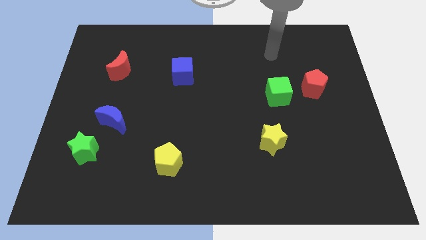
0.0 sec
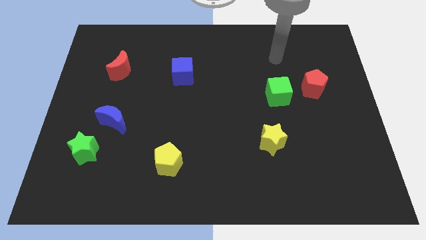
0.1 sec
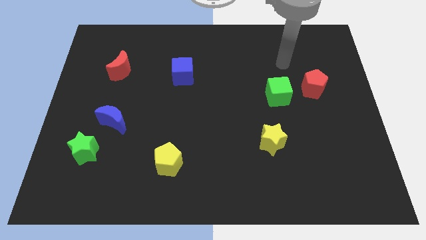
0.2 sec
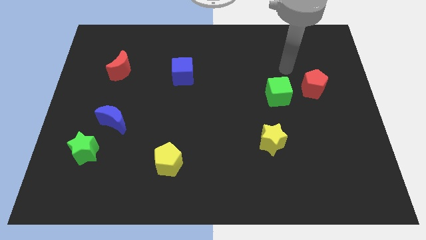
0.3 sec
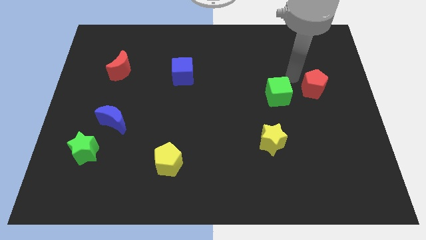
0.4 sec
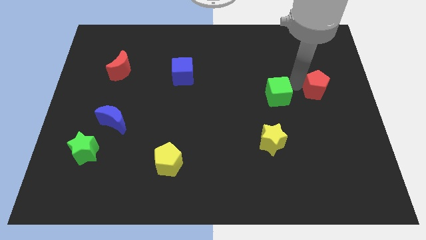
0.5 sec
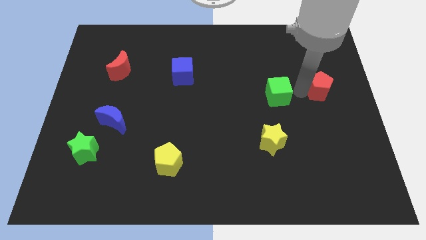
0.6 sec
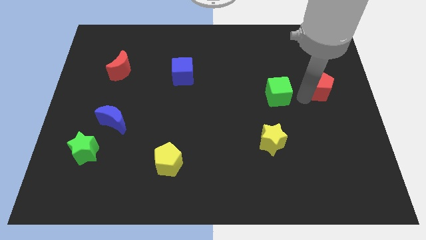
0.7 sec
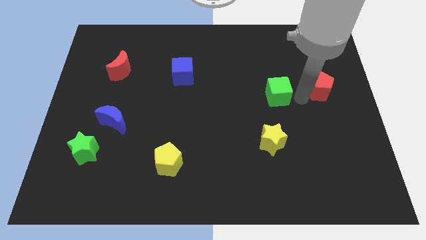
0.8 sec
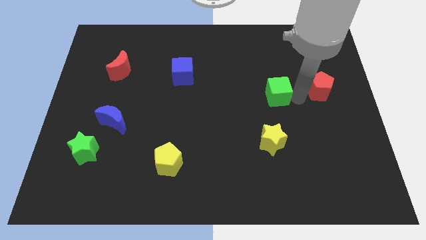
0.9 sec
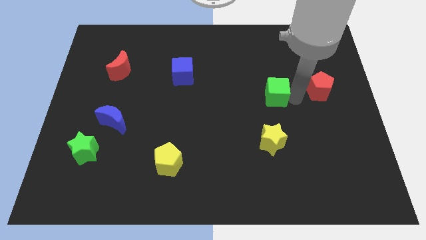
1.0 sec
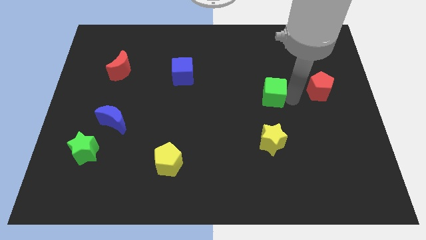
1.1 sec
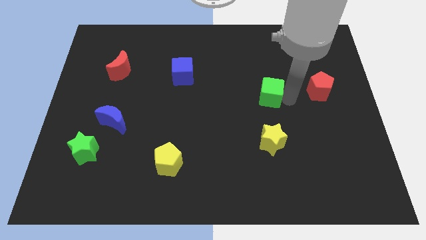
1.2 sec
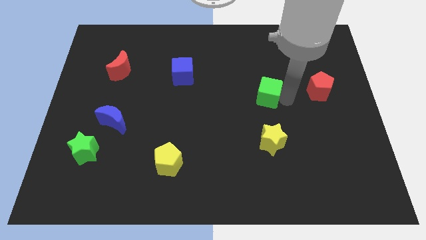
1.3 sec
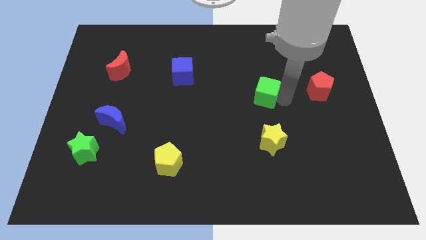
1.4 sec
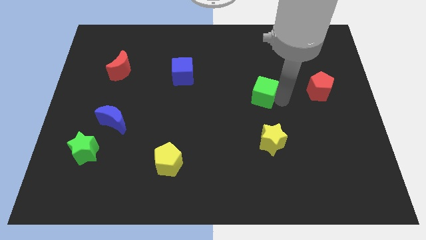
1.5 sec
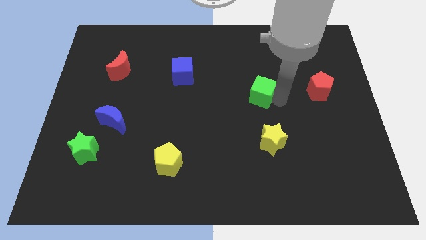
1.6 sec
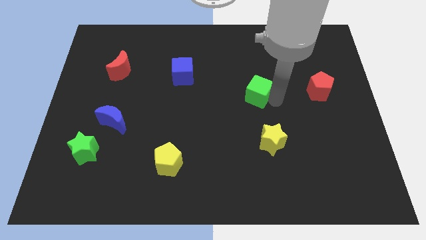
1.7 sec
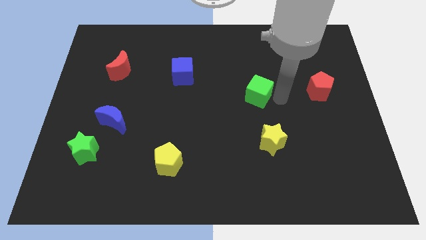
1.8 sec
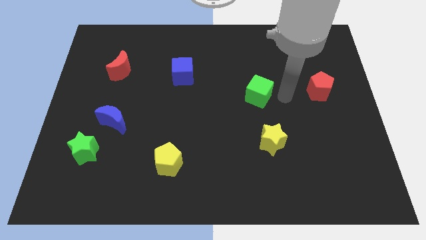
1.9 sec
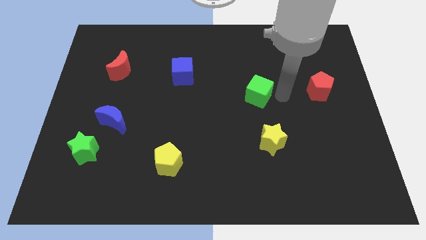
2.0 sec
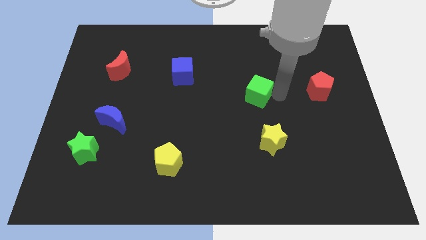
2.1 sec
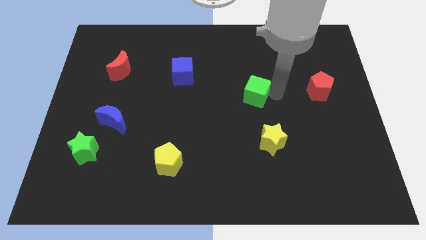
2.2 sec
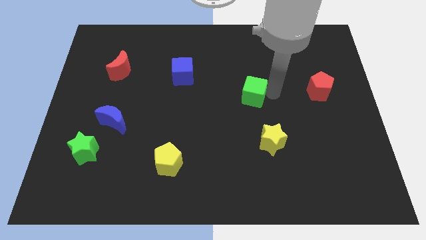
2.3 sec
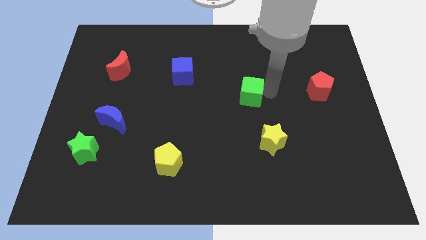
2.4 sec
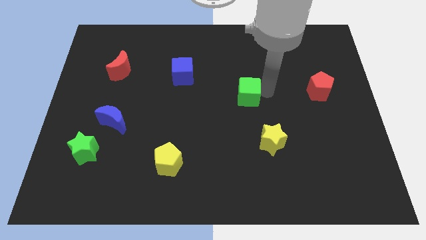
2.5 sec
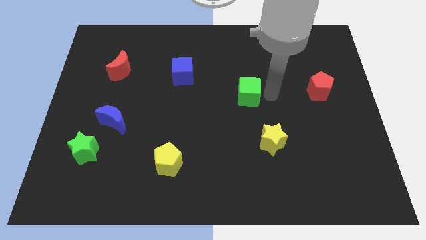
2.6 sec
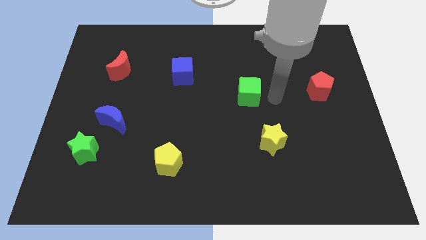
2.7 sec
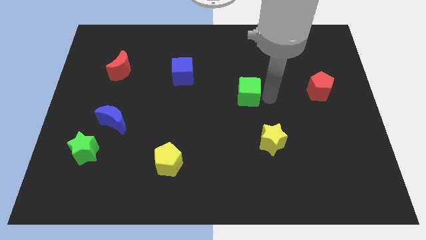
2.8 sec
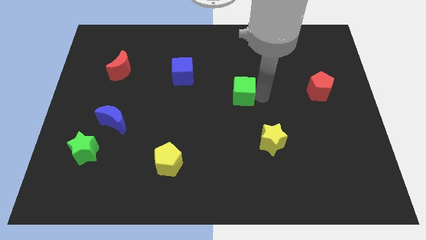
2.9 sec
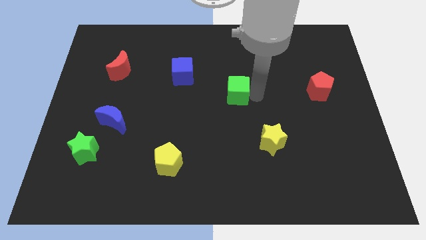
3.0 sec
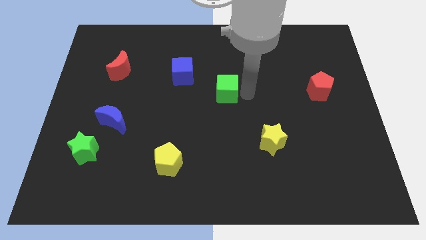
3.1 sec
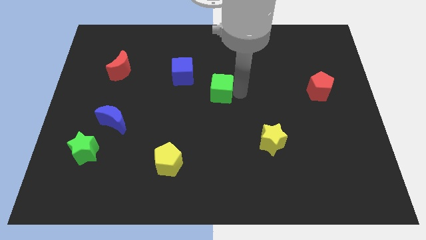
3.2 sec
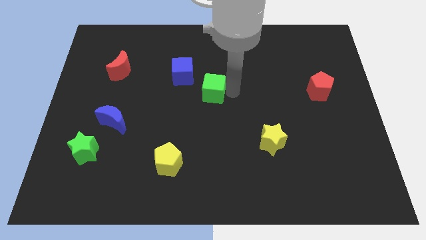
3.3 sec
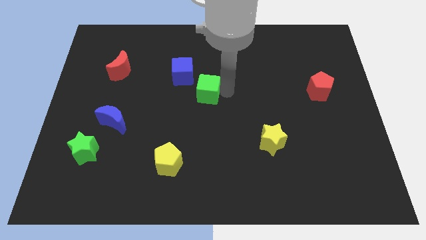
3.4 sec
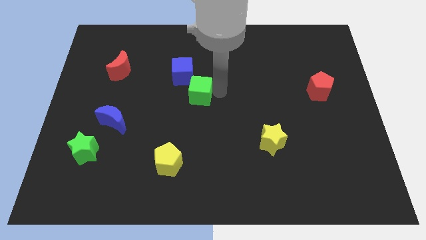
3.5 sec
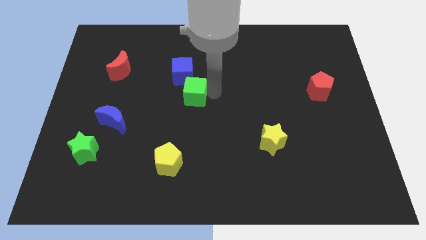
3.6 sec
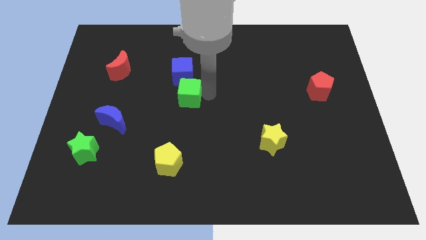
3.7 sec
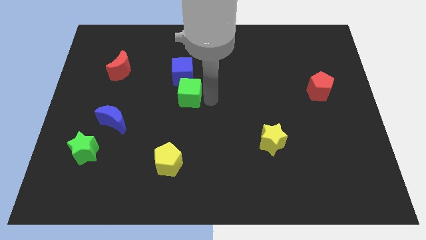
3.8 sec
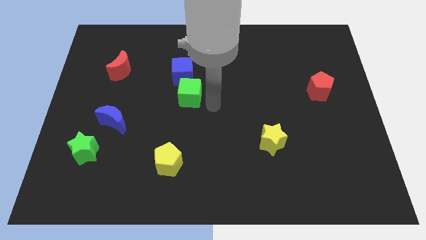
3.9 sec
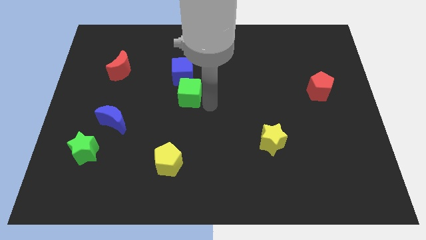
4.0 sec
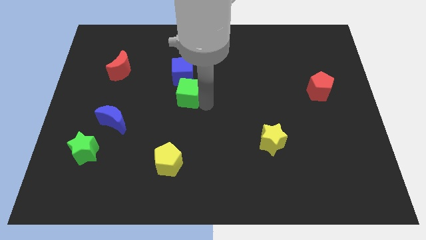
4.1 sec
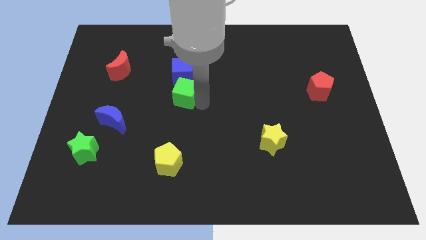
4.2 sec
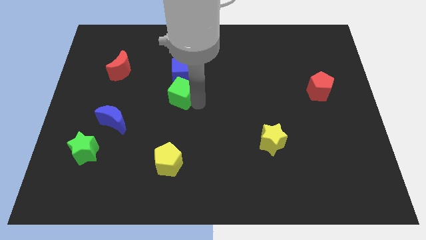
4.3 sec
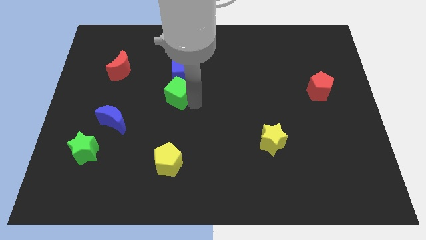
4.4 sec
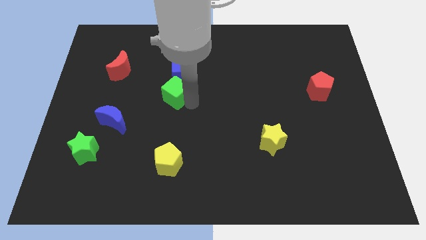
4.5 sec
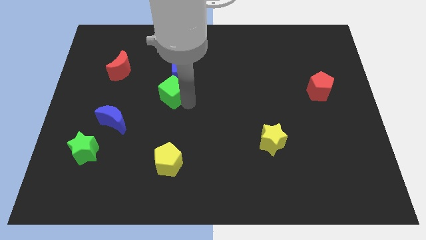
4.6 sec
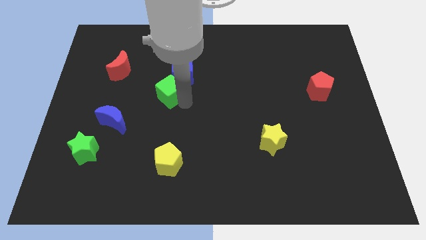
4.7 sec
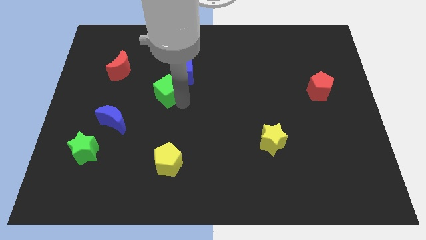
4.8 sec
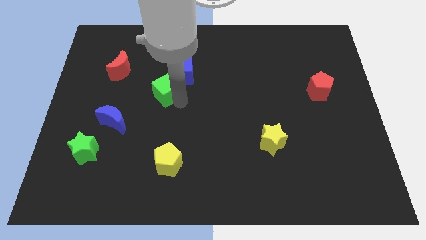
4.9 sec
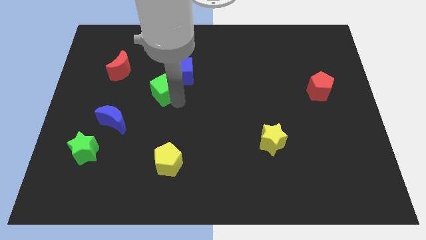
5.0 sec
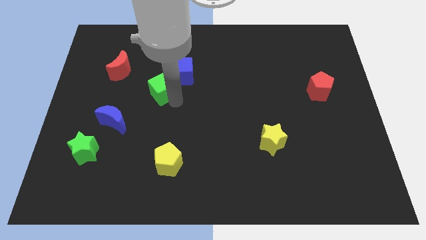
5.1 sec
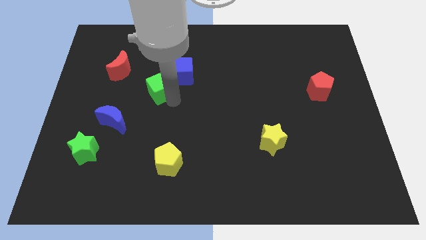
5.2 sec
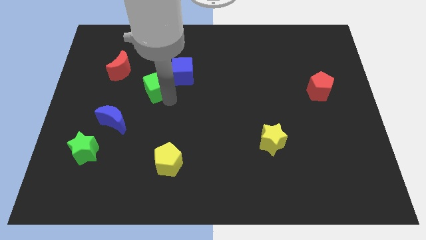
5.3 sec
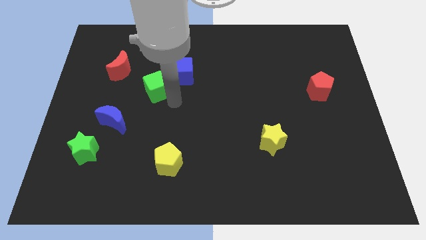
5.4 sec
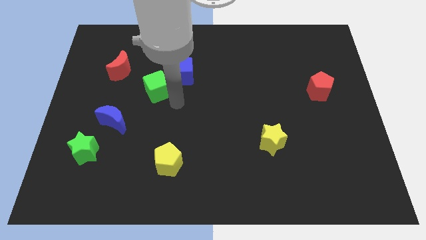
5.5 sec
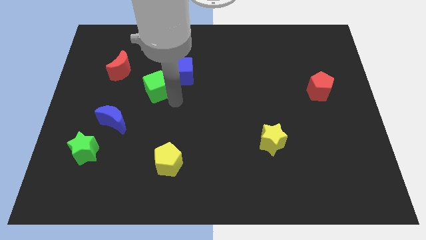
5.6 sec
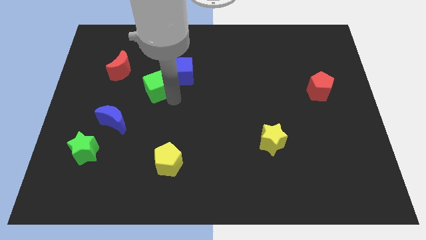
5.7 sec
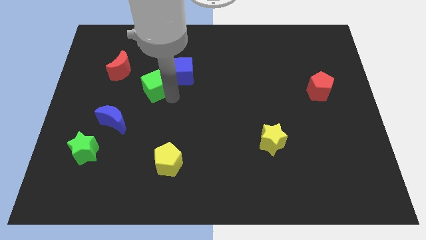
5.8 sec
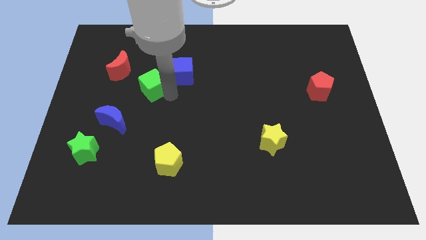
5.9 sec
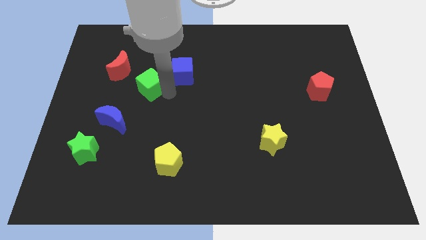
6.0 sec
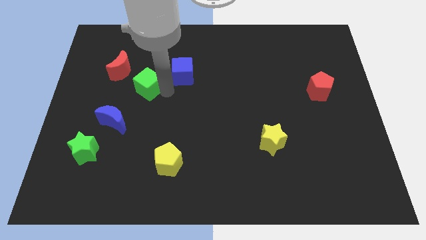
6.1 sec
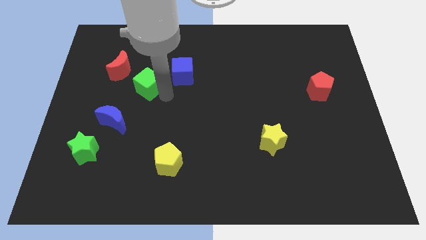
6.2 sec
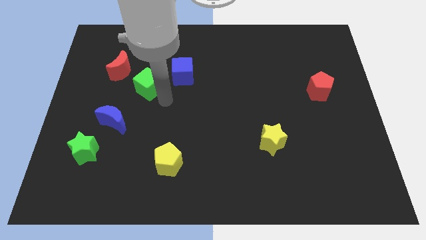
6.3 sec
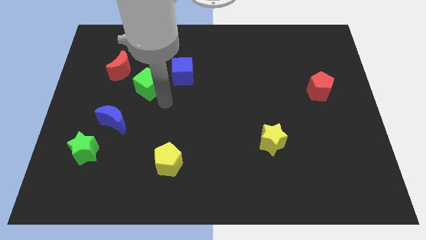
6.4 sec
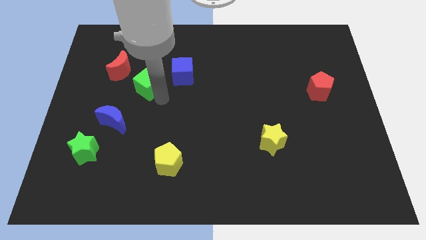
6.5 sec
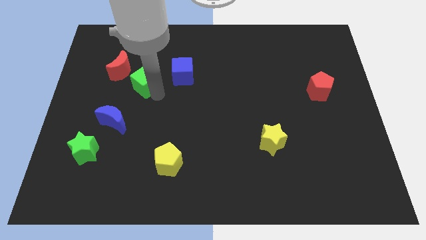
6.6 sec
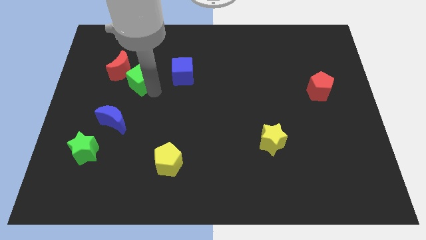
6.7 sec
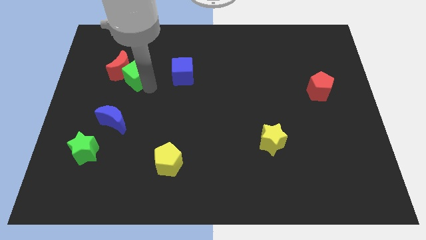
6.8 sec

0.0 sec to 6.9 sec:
slide the green cube close to the red moon
